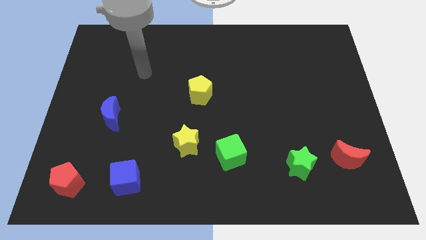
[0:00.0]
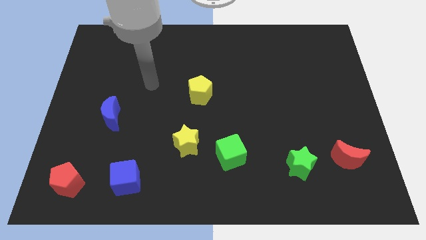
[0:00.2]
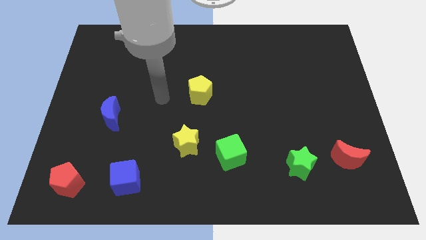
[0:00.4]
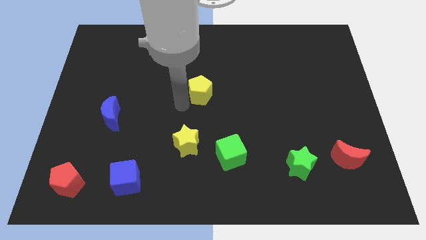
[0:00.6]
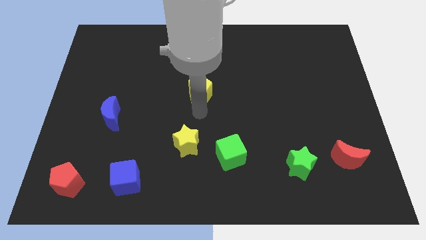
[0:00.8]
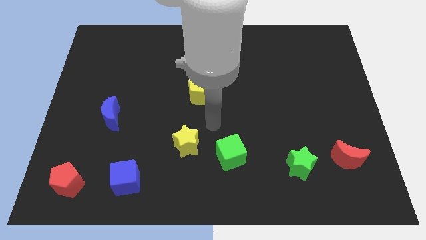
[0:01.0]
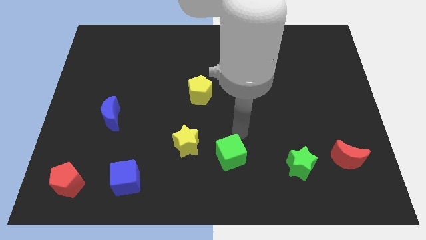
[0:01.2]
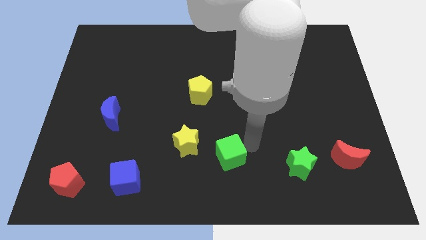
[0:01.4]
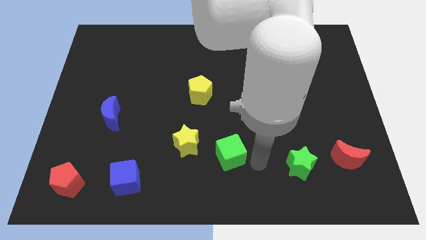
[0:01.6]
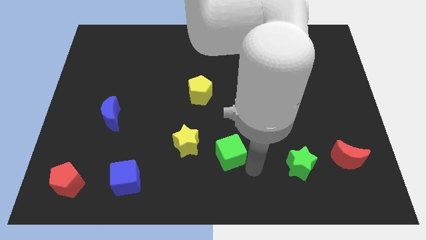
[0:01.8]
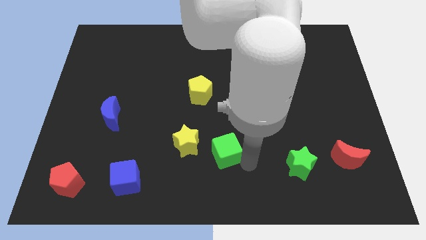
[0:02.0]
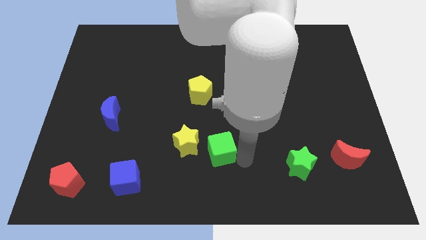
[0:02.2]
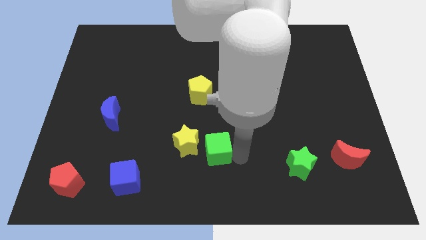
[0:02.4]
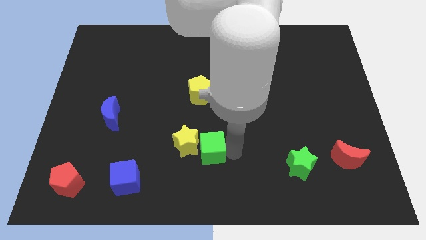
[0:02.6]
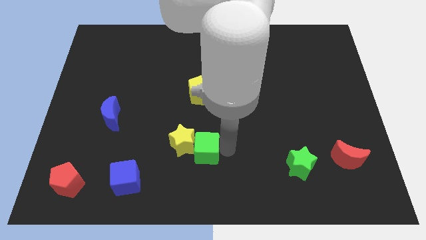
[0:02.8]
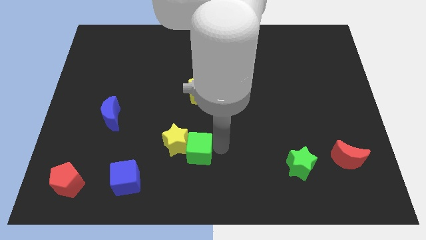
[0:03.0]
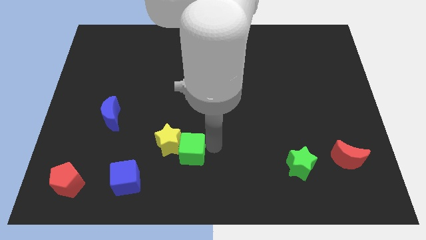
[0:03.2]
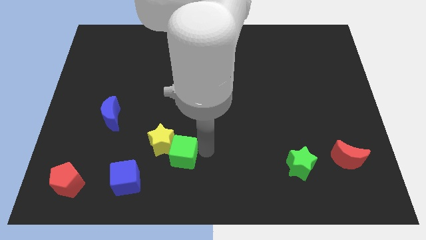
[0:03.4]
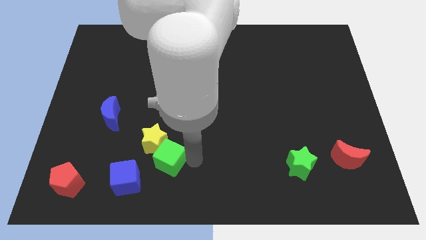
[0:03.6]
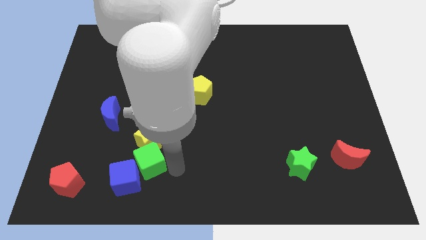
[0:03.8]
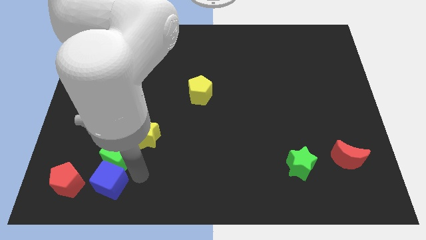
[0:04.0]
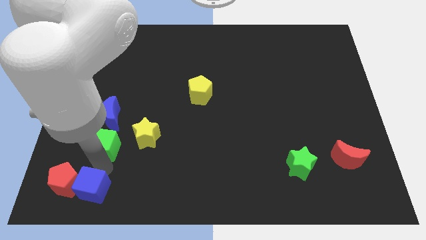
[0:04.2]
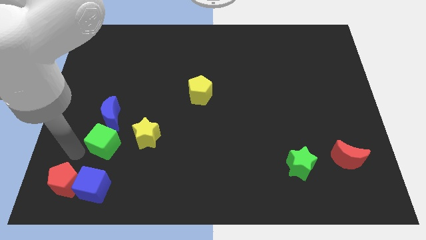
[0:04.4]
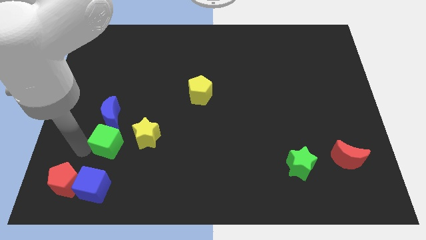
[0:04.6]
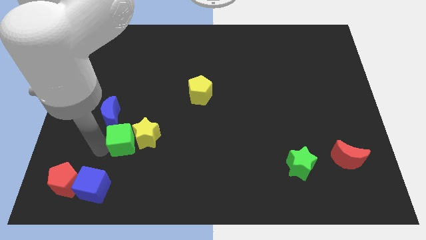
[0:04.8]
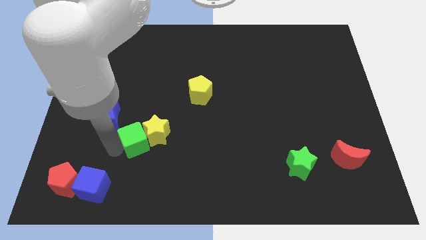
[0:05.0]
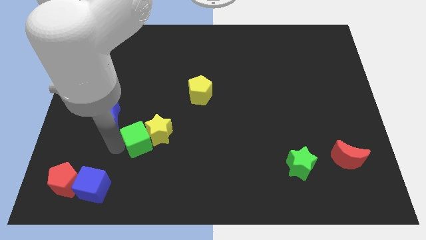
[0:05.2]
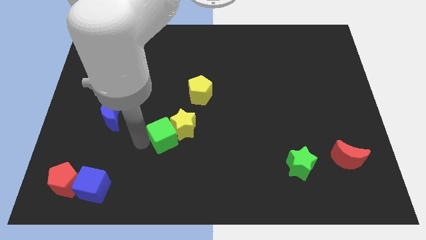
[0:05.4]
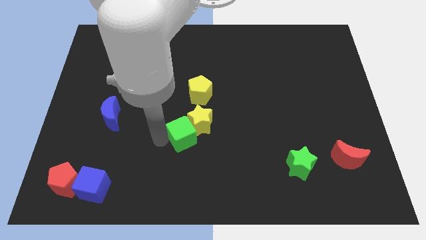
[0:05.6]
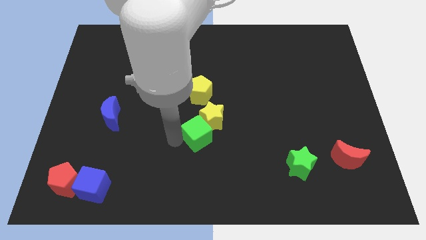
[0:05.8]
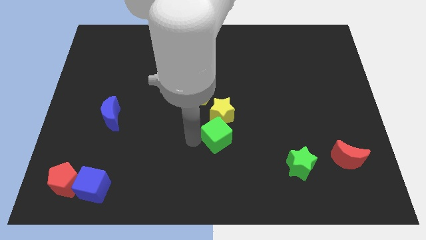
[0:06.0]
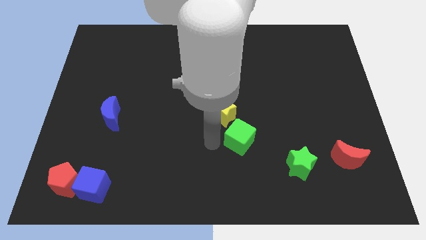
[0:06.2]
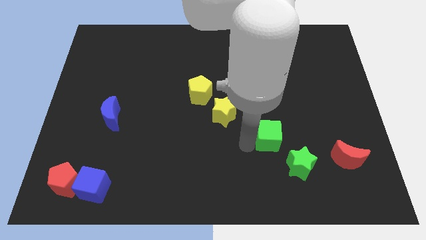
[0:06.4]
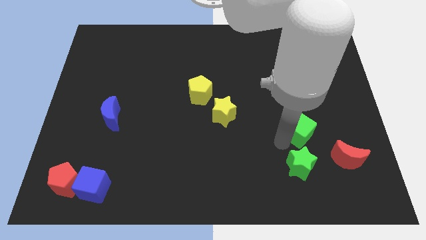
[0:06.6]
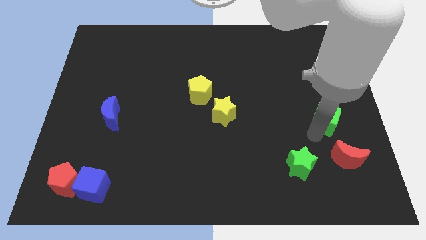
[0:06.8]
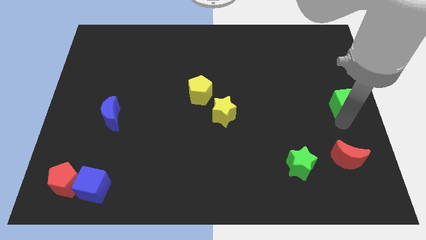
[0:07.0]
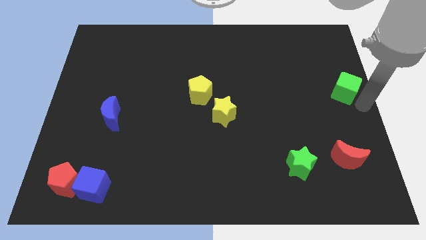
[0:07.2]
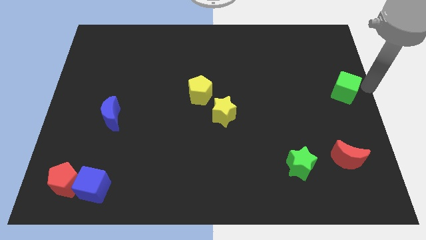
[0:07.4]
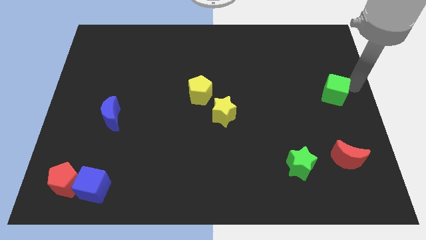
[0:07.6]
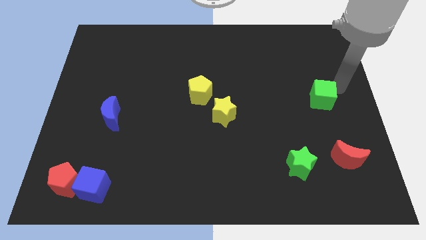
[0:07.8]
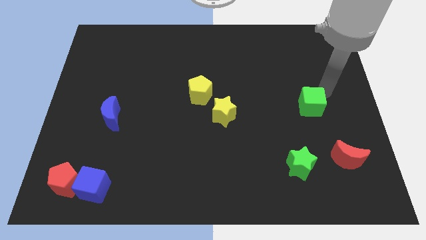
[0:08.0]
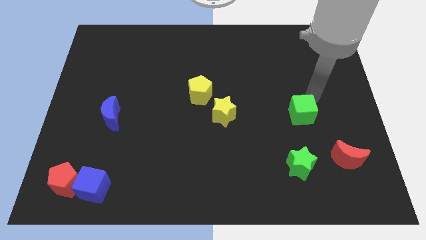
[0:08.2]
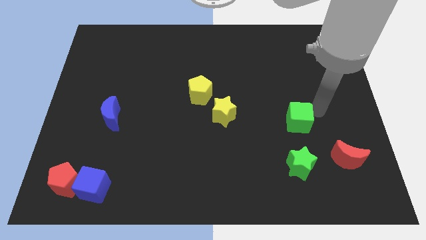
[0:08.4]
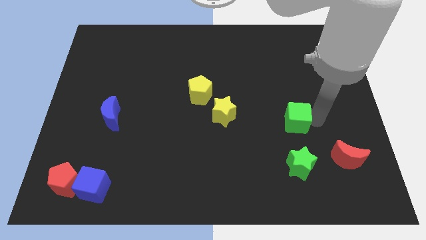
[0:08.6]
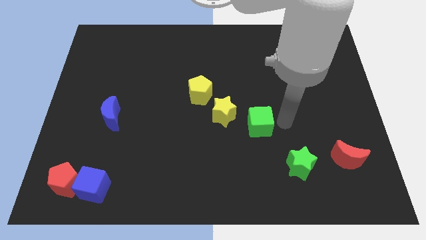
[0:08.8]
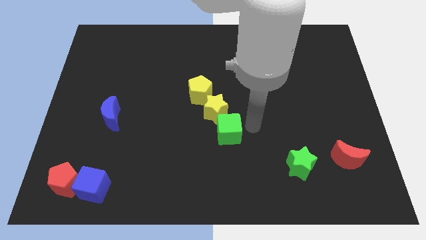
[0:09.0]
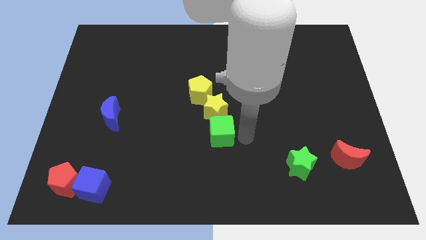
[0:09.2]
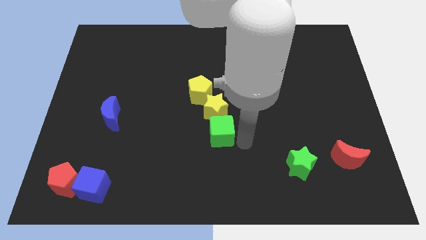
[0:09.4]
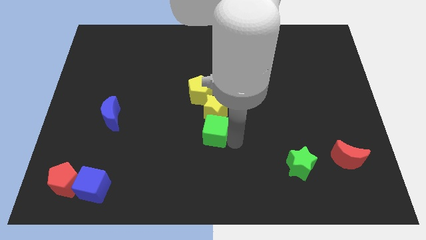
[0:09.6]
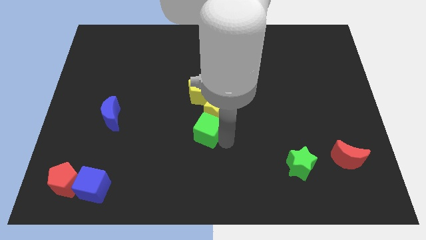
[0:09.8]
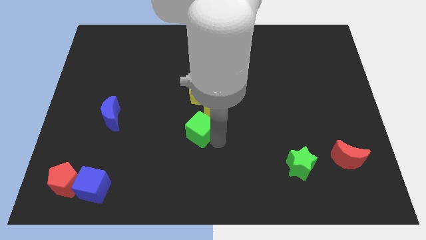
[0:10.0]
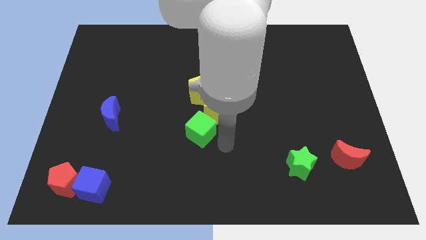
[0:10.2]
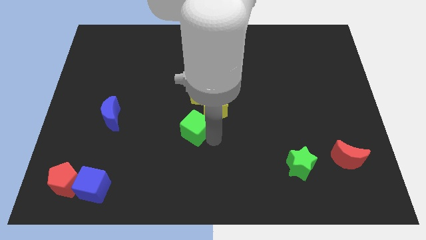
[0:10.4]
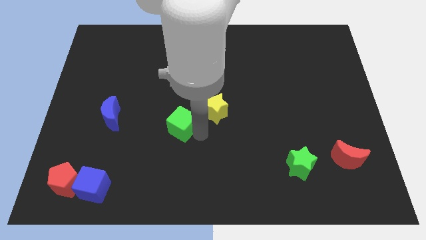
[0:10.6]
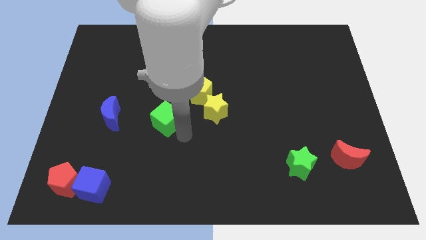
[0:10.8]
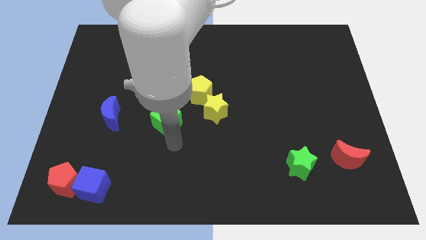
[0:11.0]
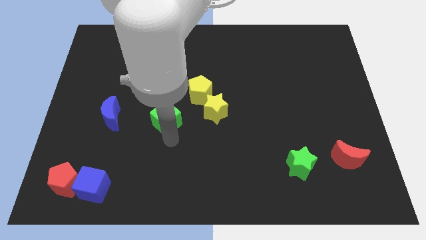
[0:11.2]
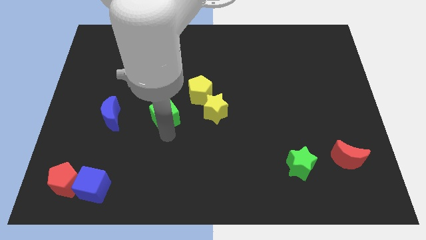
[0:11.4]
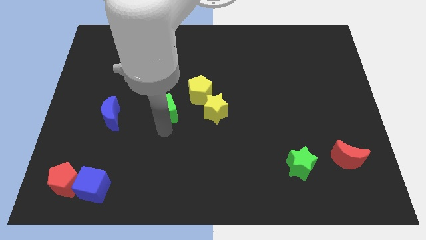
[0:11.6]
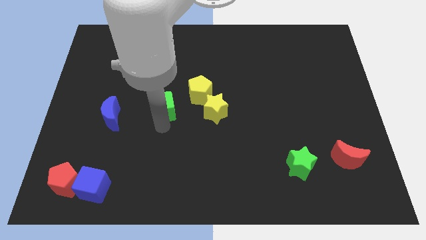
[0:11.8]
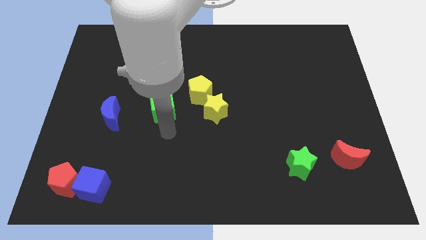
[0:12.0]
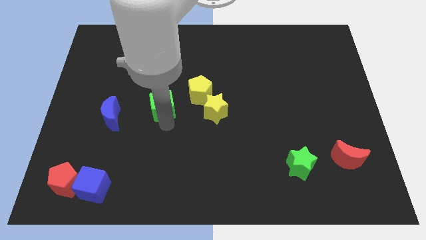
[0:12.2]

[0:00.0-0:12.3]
push the green cube up and left

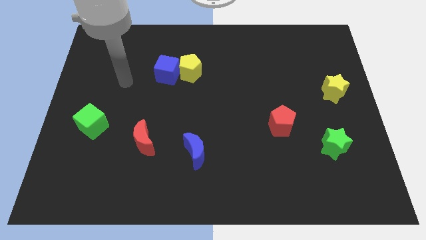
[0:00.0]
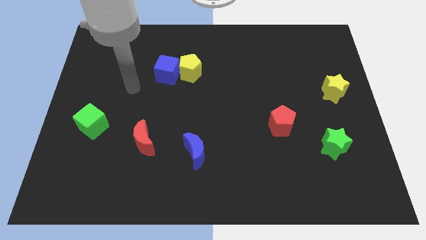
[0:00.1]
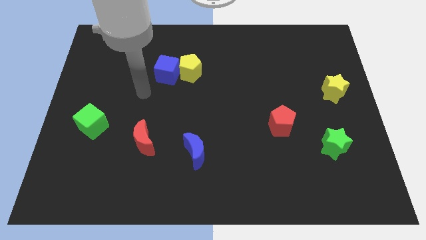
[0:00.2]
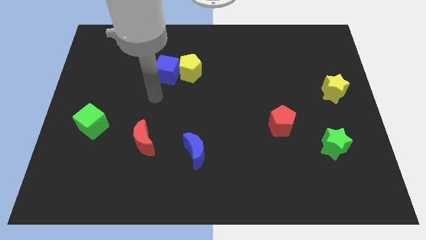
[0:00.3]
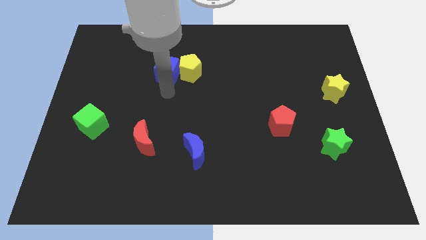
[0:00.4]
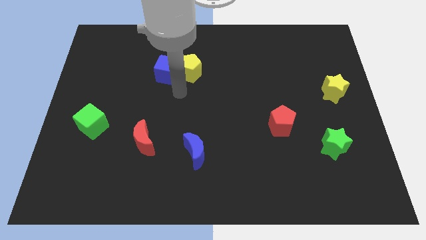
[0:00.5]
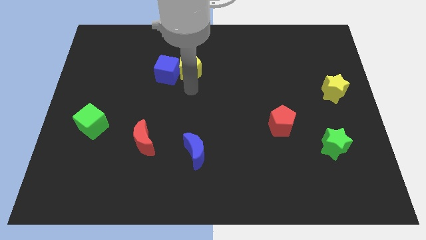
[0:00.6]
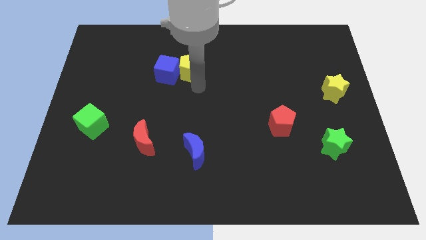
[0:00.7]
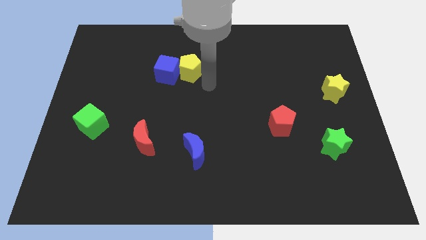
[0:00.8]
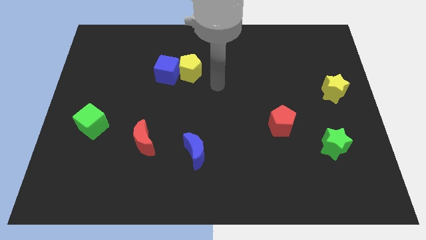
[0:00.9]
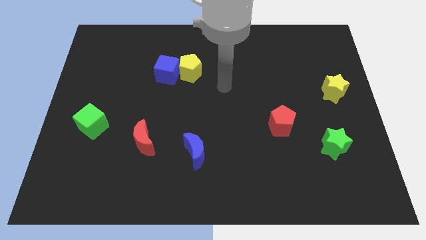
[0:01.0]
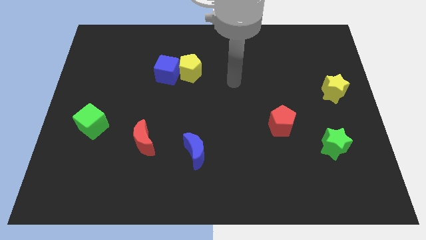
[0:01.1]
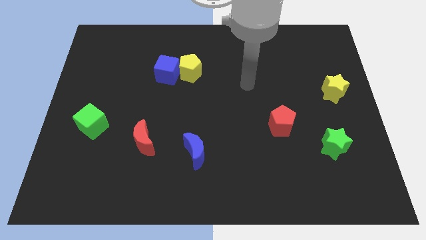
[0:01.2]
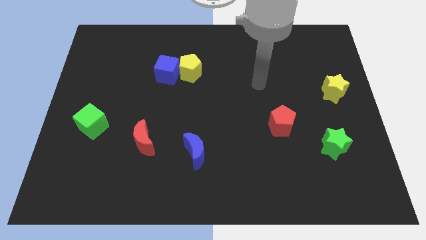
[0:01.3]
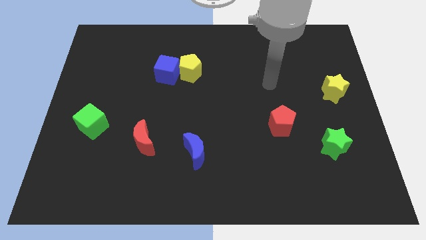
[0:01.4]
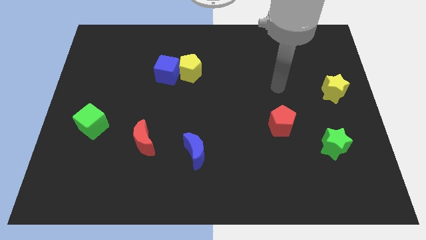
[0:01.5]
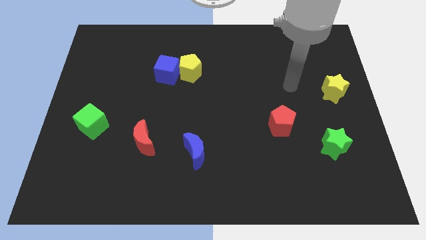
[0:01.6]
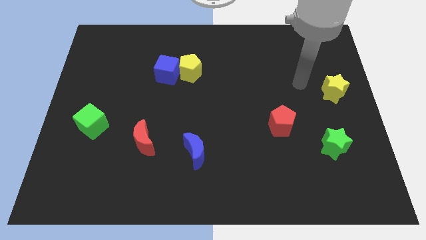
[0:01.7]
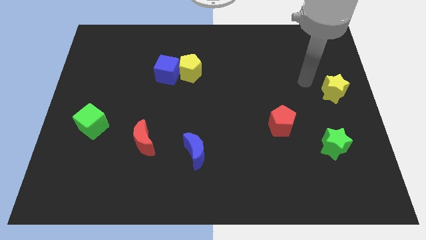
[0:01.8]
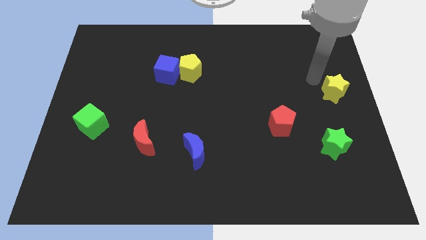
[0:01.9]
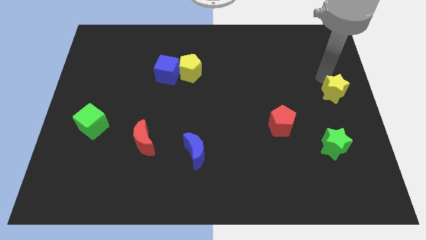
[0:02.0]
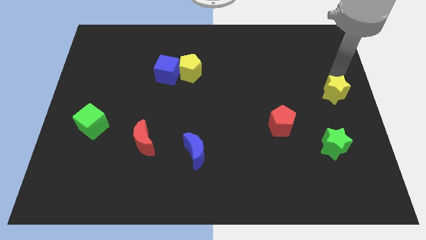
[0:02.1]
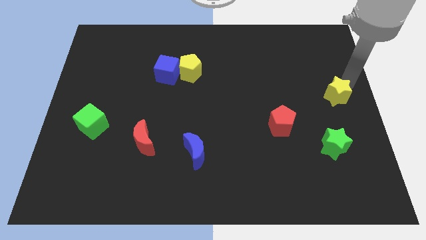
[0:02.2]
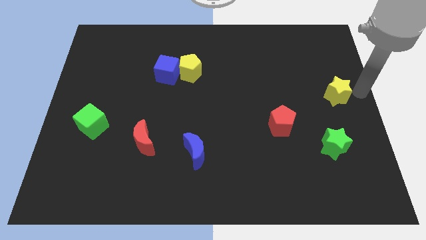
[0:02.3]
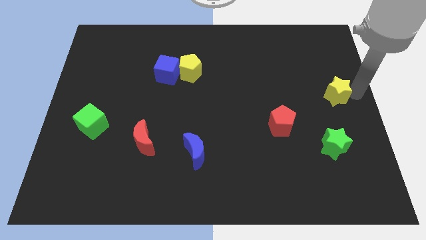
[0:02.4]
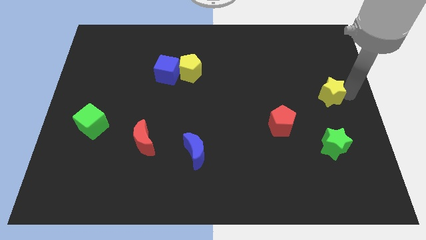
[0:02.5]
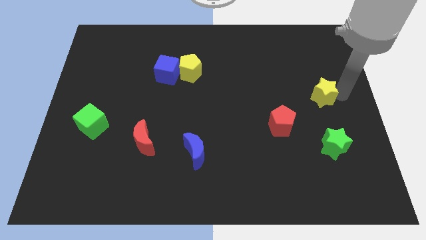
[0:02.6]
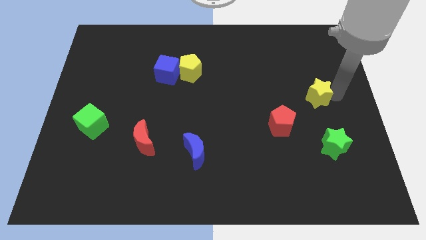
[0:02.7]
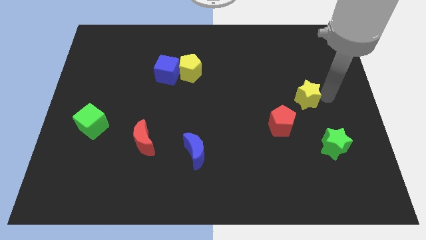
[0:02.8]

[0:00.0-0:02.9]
slide the yellow star slightly left
